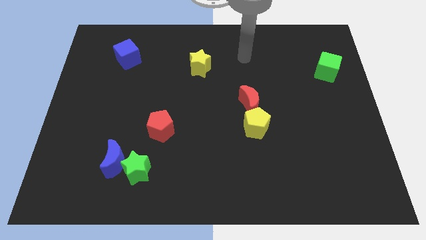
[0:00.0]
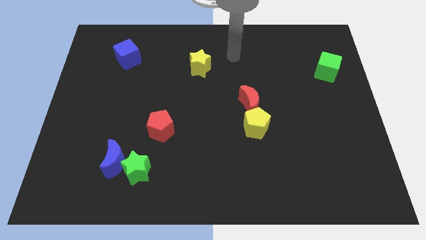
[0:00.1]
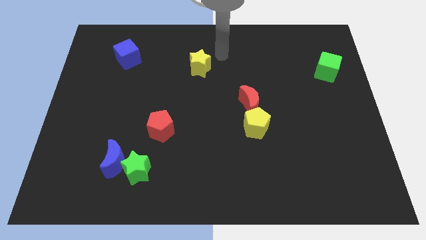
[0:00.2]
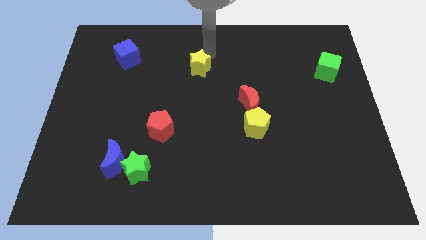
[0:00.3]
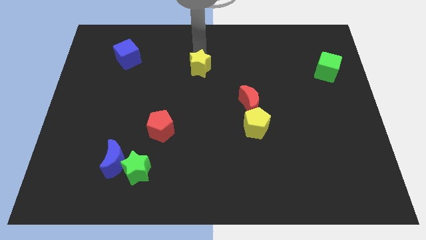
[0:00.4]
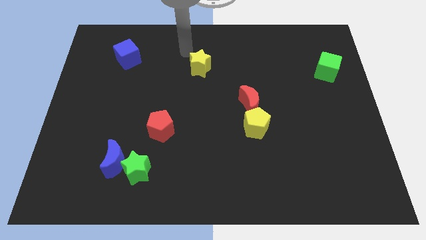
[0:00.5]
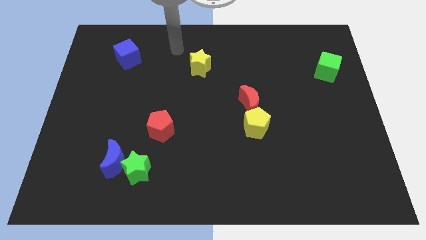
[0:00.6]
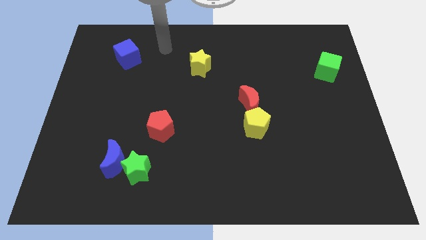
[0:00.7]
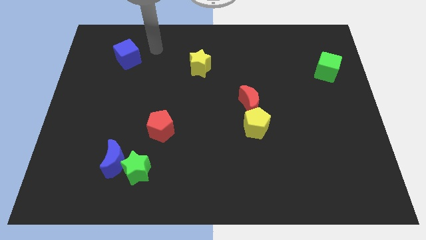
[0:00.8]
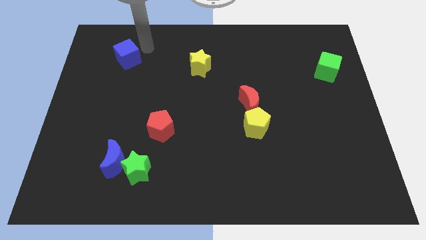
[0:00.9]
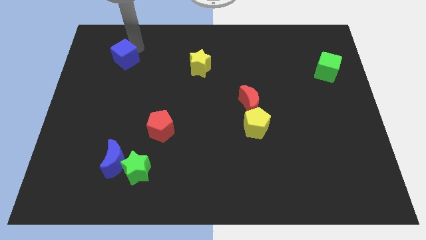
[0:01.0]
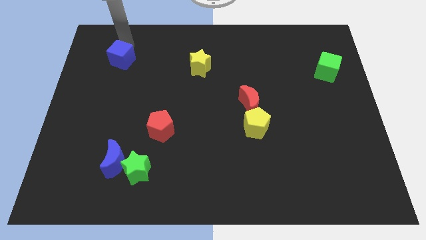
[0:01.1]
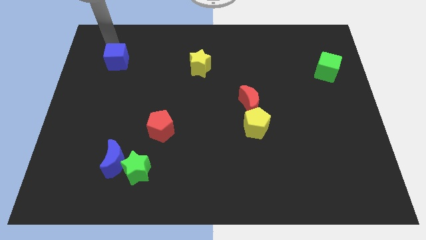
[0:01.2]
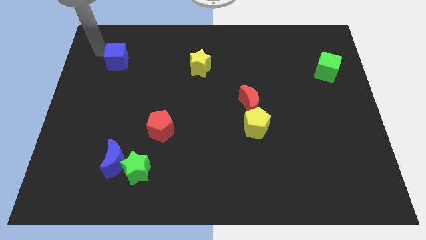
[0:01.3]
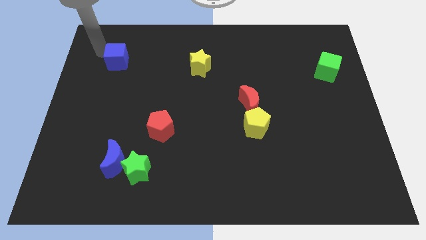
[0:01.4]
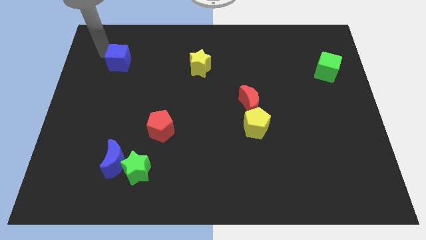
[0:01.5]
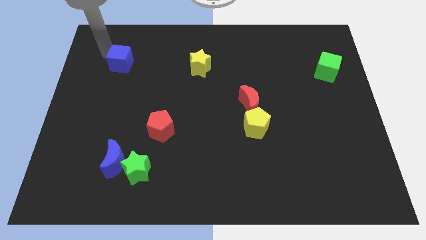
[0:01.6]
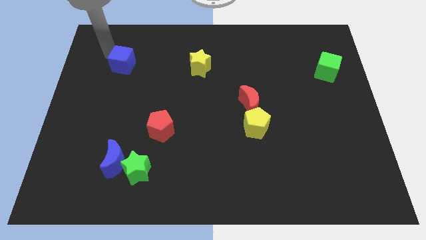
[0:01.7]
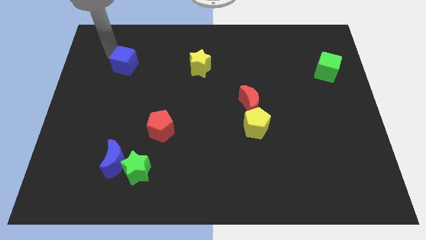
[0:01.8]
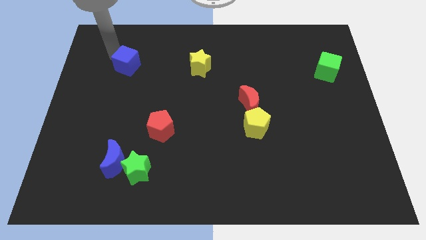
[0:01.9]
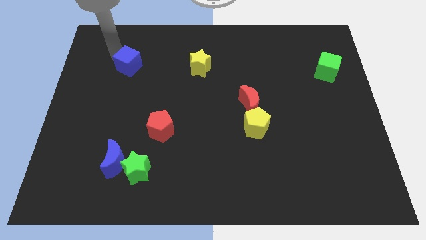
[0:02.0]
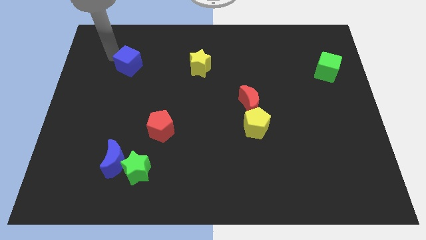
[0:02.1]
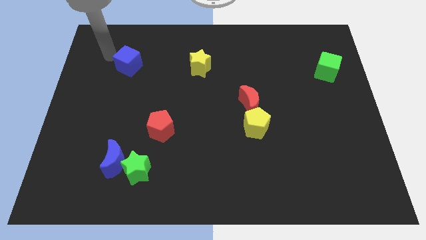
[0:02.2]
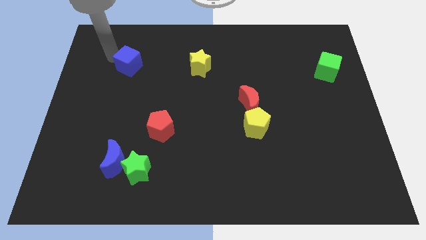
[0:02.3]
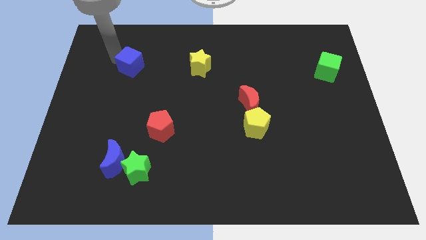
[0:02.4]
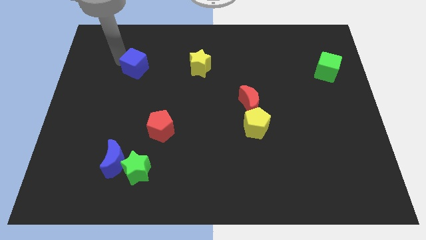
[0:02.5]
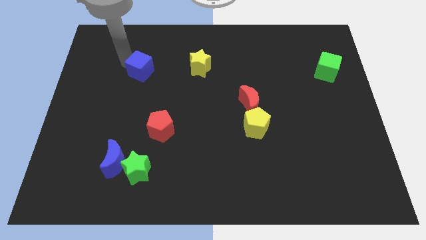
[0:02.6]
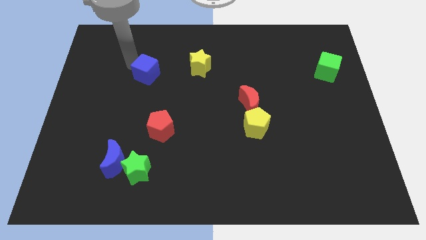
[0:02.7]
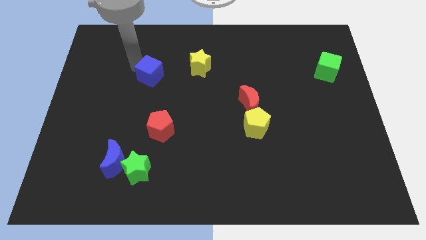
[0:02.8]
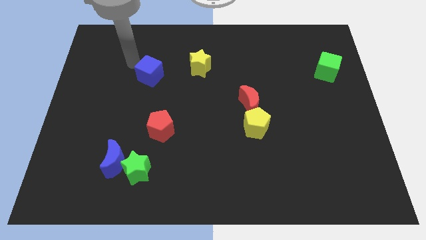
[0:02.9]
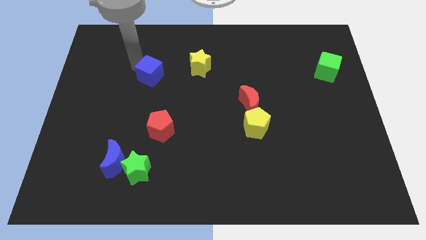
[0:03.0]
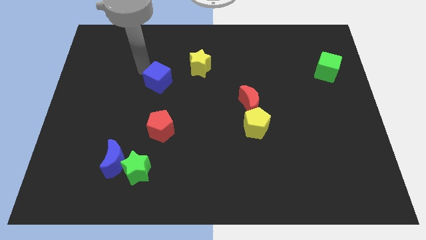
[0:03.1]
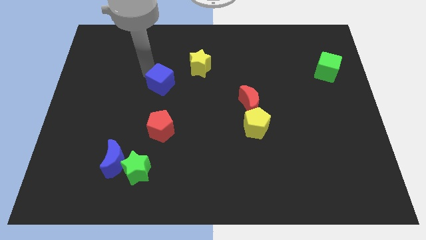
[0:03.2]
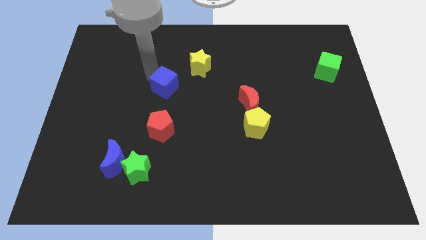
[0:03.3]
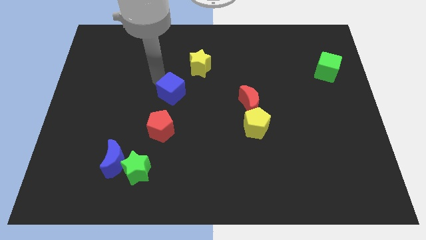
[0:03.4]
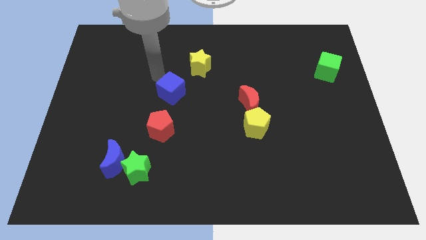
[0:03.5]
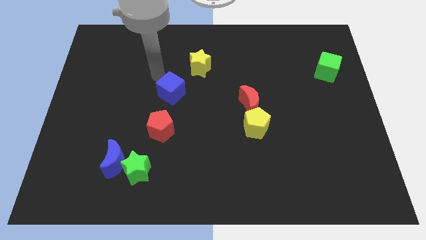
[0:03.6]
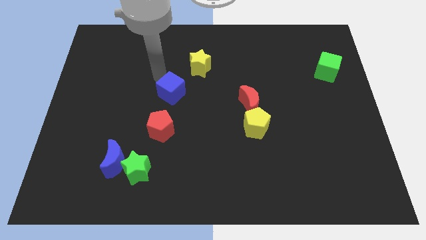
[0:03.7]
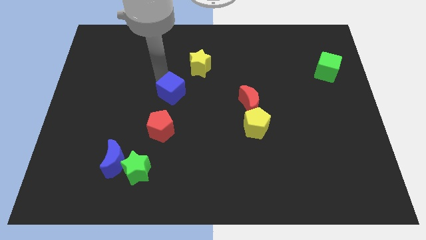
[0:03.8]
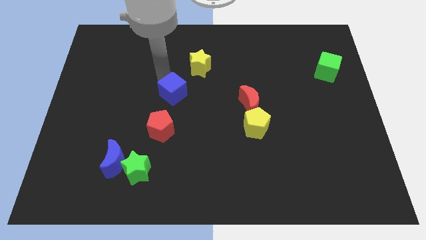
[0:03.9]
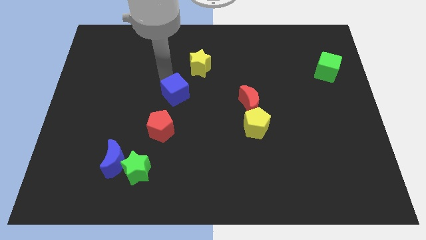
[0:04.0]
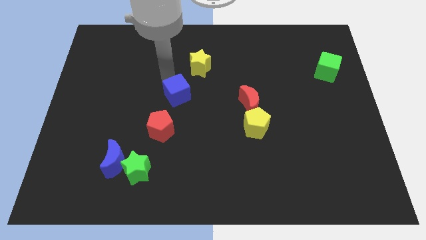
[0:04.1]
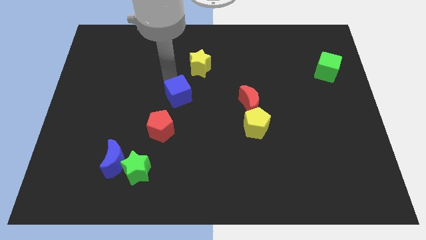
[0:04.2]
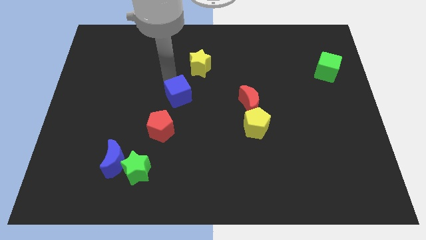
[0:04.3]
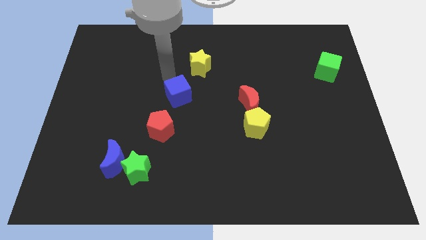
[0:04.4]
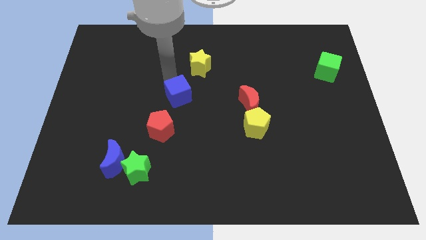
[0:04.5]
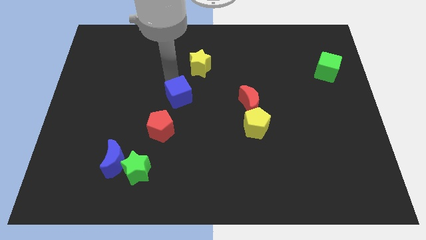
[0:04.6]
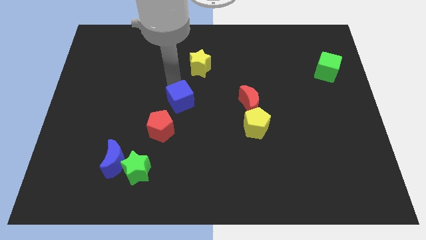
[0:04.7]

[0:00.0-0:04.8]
push the blue cube down and then to the right

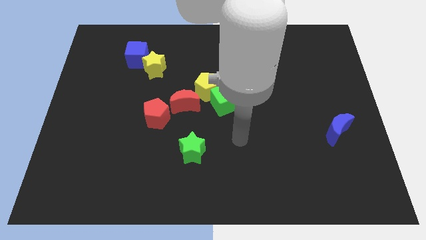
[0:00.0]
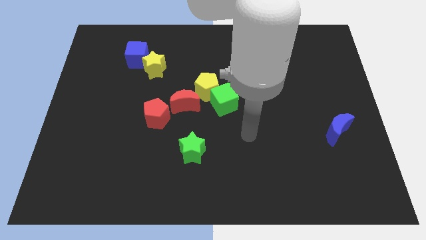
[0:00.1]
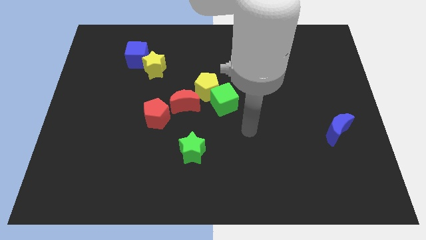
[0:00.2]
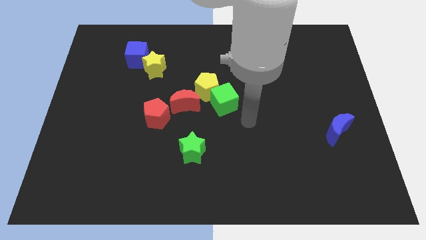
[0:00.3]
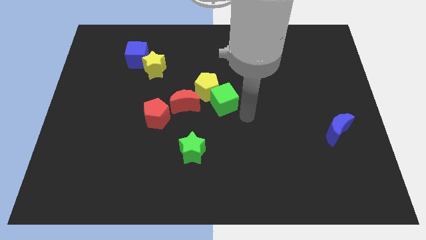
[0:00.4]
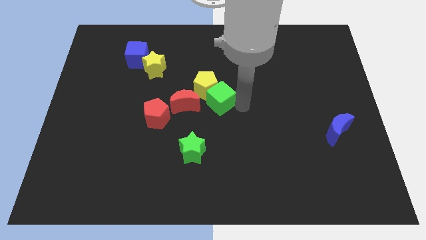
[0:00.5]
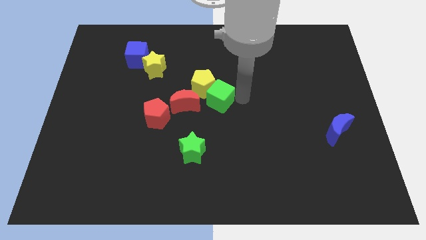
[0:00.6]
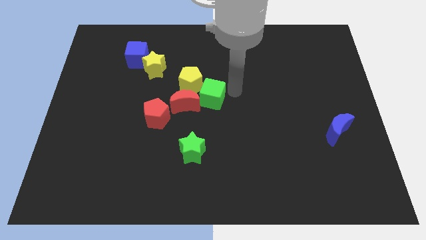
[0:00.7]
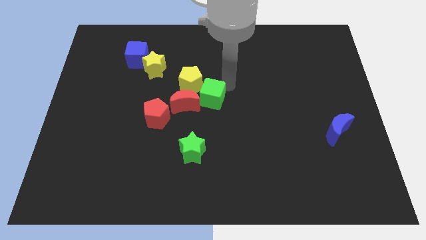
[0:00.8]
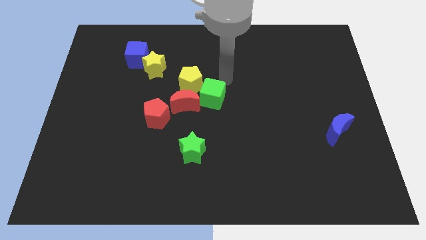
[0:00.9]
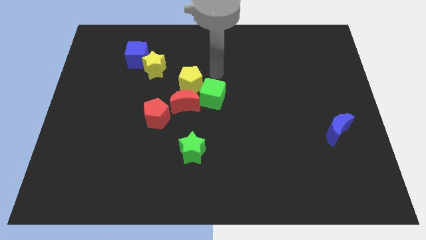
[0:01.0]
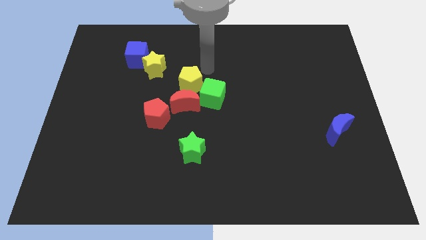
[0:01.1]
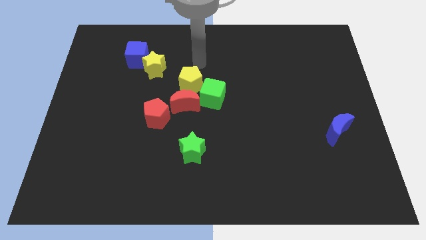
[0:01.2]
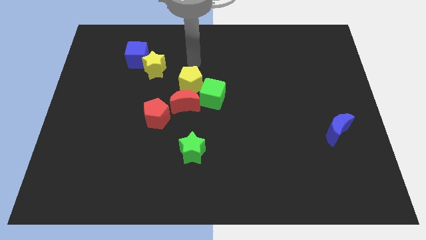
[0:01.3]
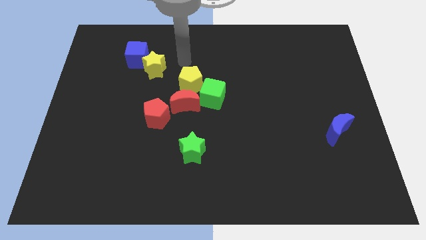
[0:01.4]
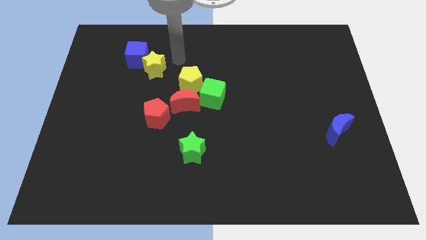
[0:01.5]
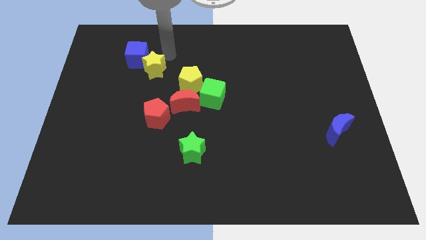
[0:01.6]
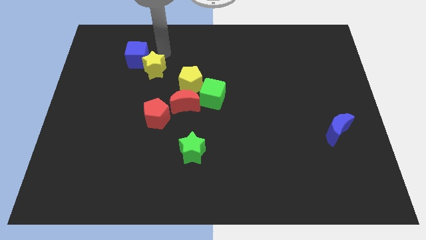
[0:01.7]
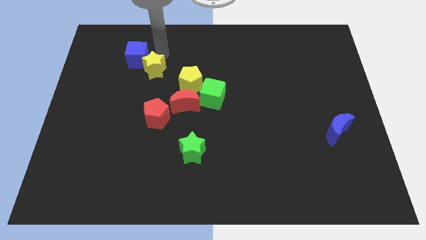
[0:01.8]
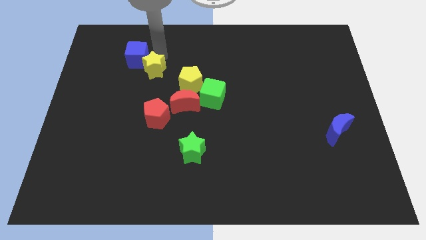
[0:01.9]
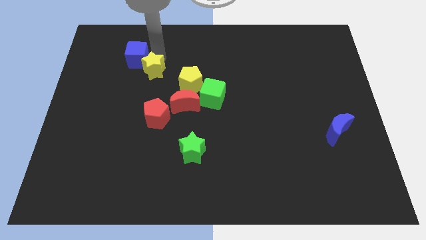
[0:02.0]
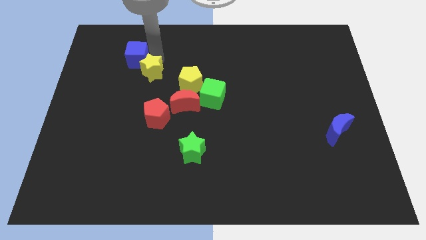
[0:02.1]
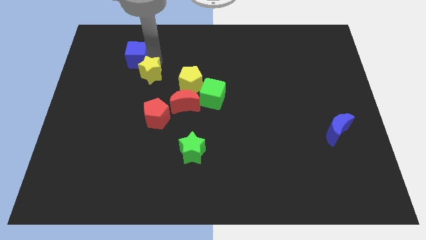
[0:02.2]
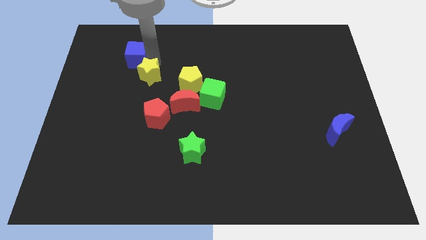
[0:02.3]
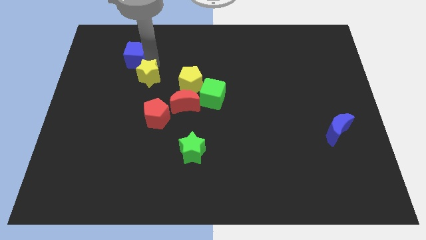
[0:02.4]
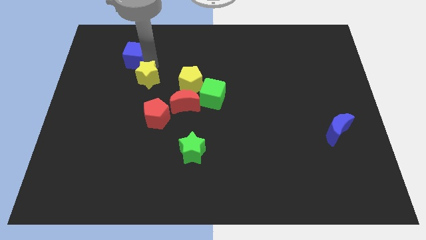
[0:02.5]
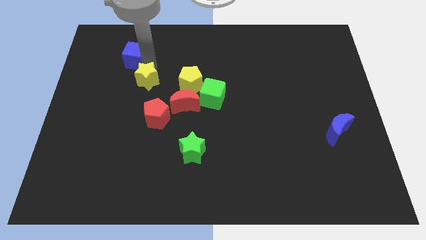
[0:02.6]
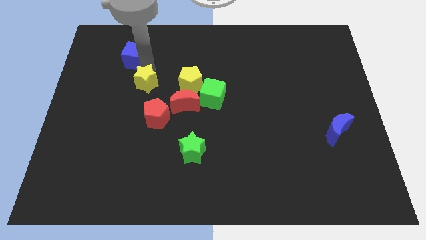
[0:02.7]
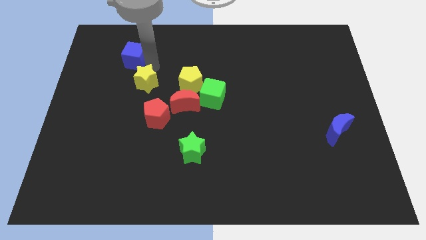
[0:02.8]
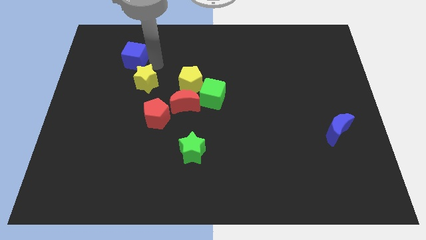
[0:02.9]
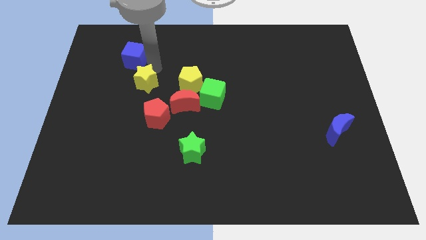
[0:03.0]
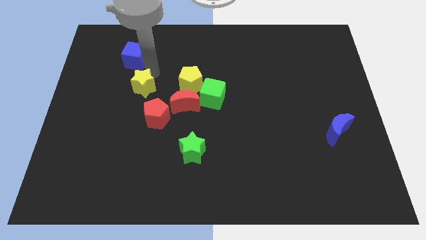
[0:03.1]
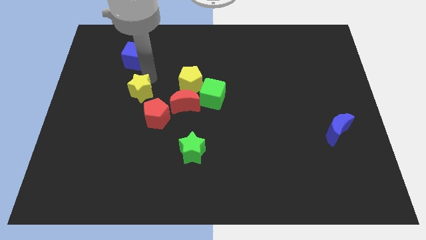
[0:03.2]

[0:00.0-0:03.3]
move the yellow star a little bit down
